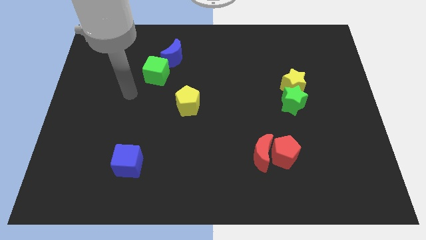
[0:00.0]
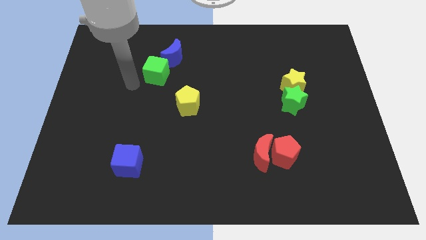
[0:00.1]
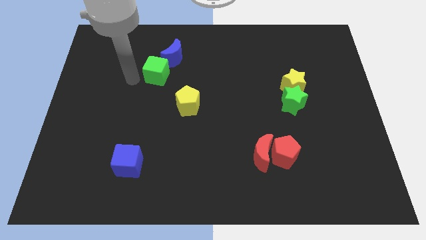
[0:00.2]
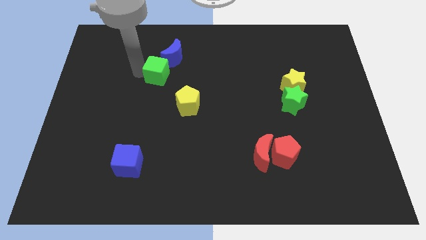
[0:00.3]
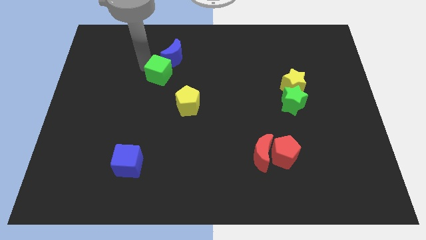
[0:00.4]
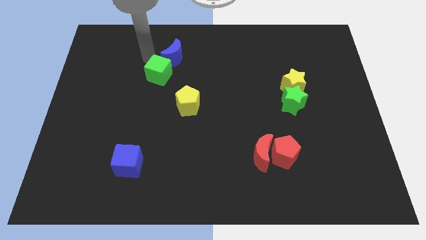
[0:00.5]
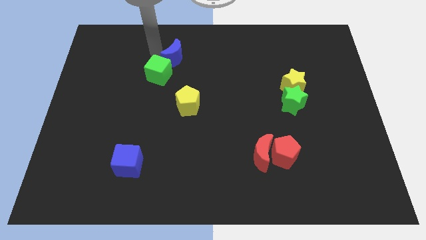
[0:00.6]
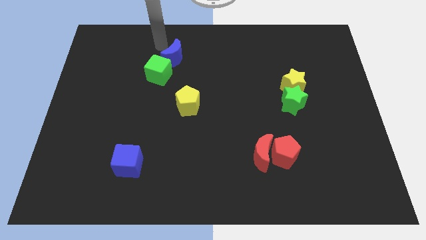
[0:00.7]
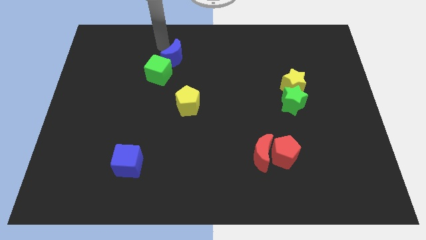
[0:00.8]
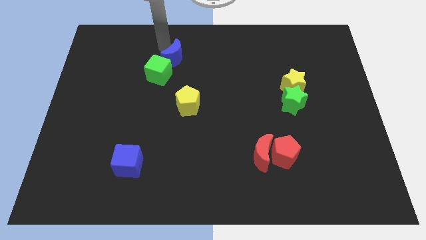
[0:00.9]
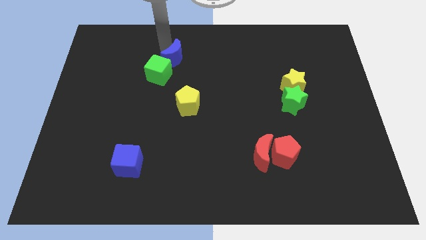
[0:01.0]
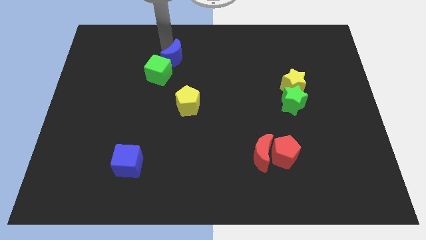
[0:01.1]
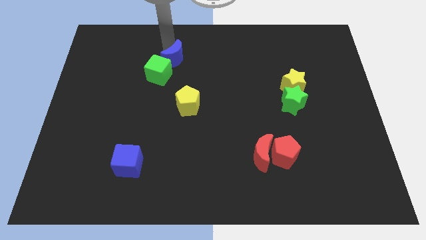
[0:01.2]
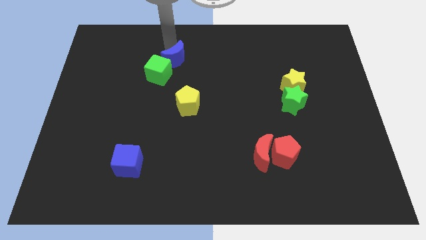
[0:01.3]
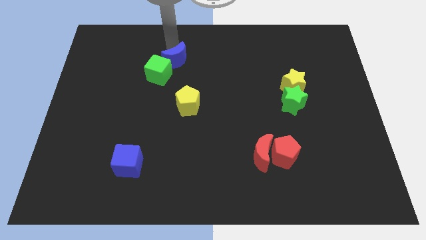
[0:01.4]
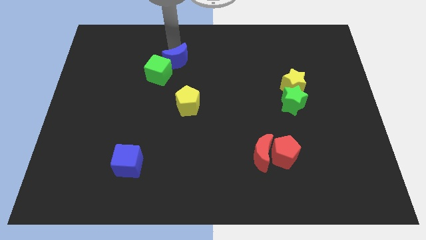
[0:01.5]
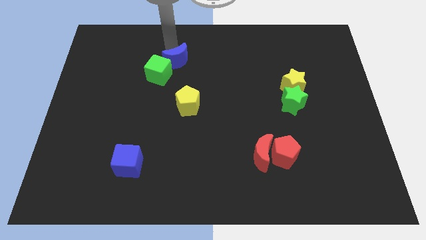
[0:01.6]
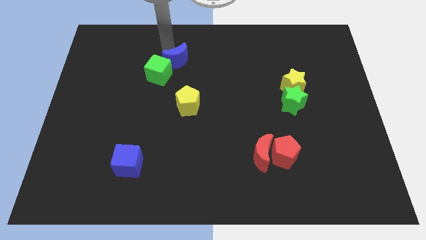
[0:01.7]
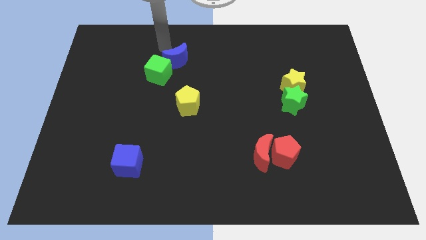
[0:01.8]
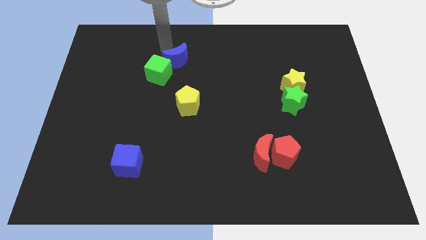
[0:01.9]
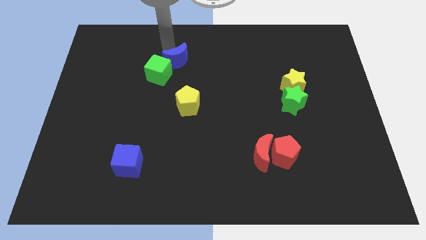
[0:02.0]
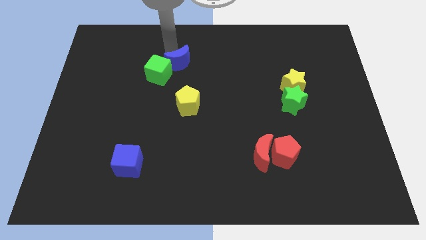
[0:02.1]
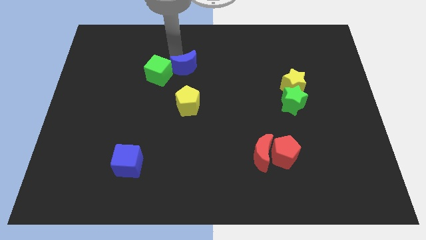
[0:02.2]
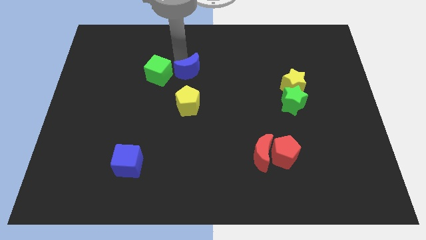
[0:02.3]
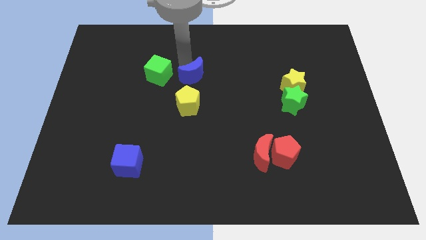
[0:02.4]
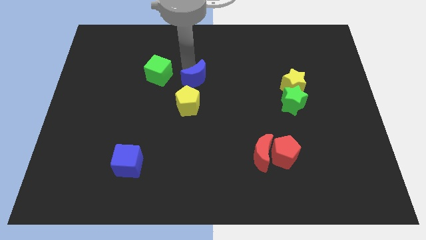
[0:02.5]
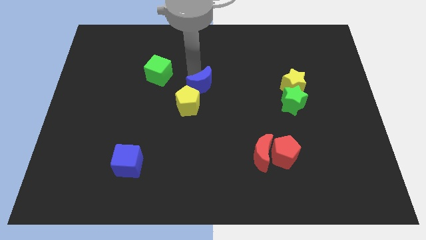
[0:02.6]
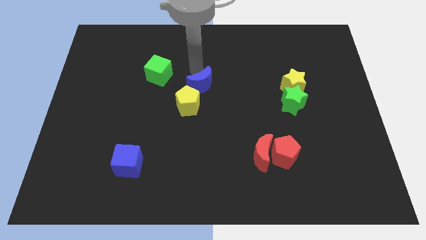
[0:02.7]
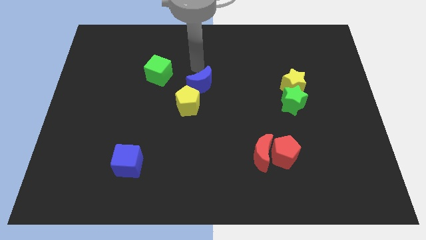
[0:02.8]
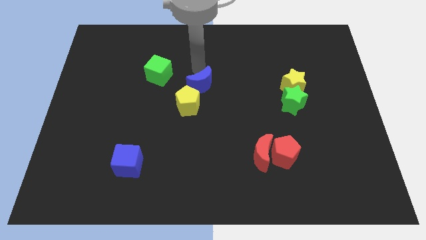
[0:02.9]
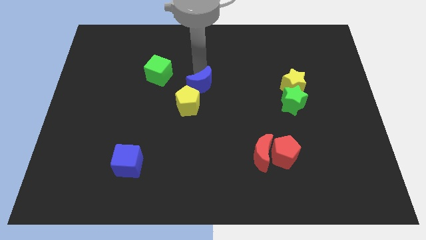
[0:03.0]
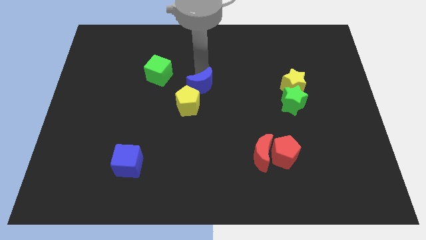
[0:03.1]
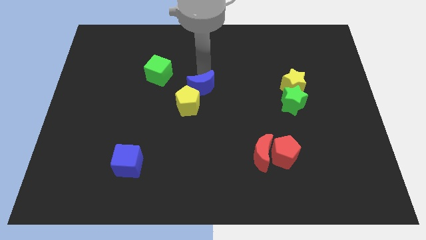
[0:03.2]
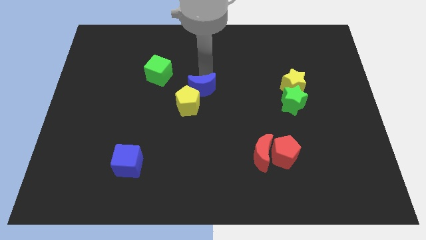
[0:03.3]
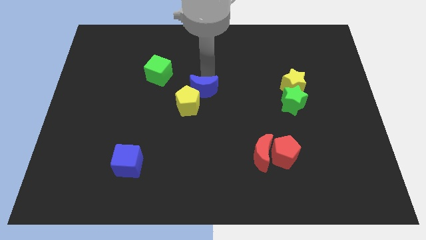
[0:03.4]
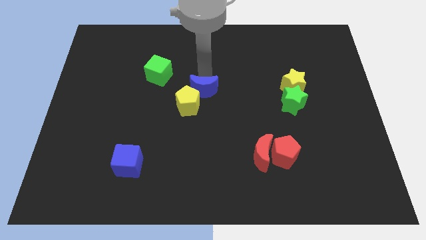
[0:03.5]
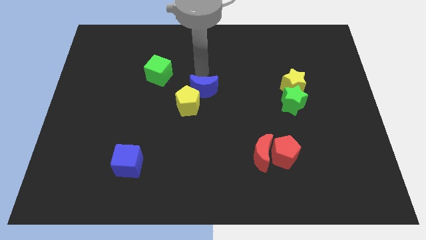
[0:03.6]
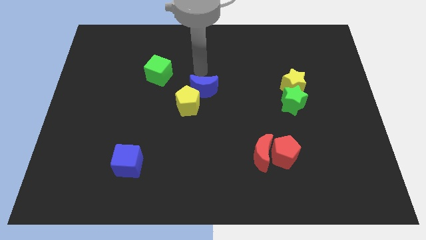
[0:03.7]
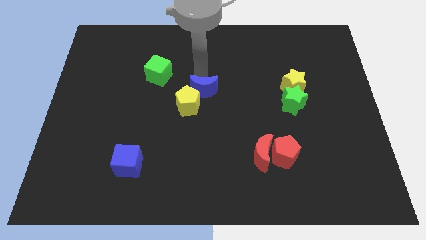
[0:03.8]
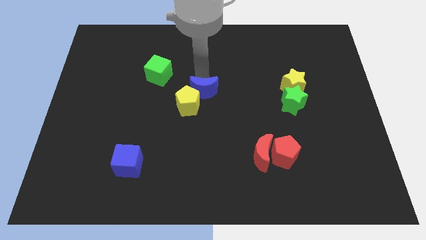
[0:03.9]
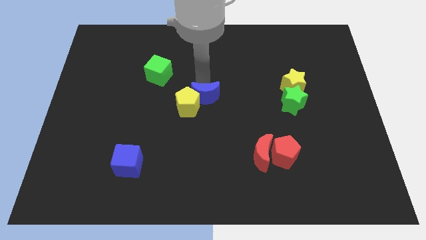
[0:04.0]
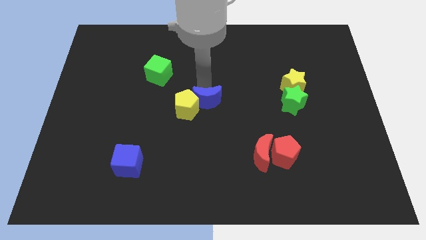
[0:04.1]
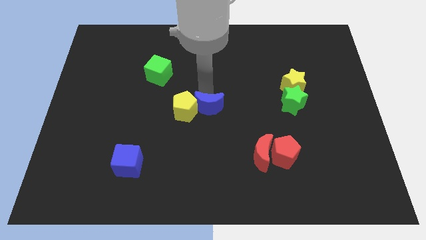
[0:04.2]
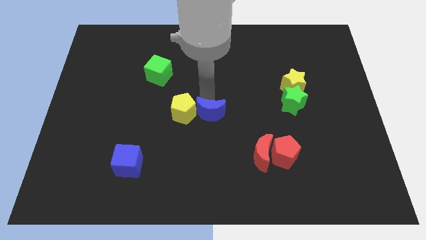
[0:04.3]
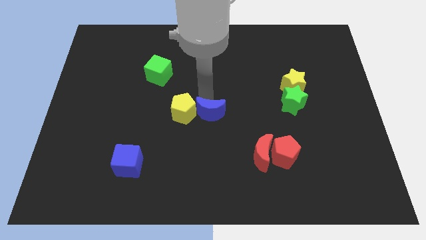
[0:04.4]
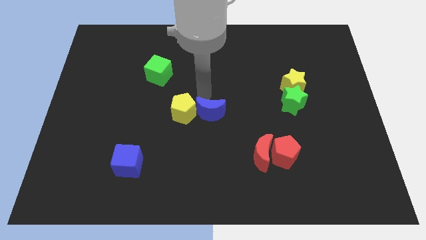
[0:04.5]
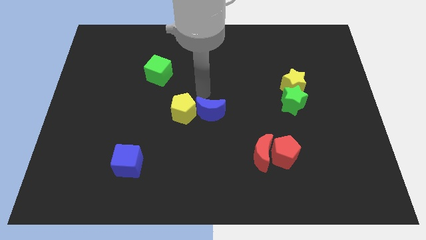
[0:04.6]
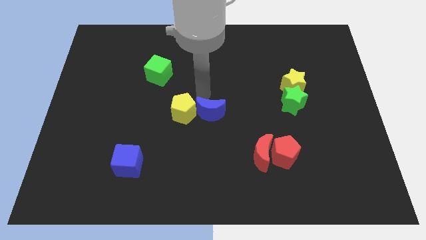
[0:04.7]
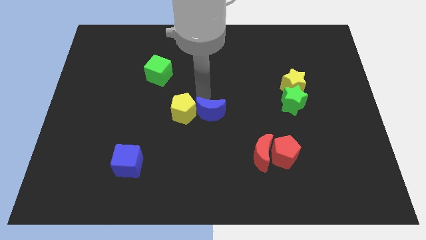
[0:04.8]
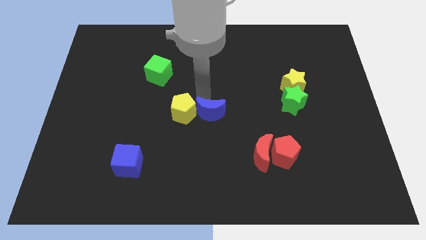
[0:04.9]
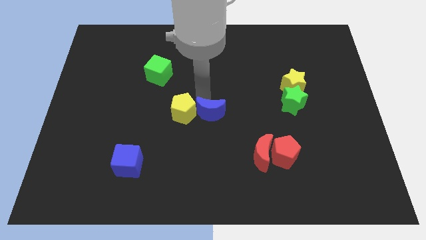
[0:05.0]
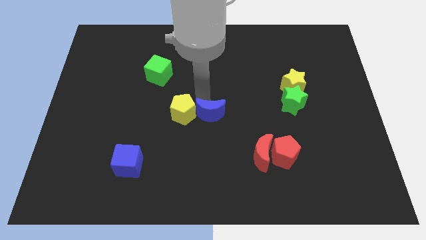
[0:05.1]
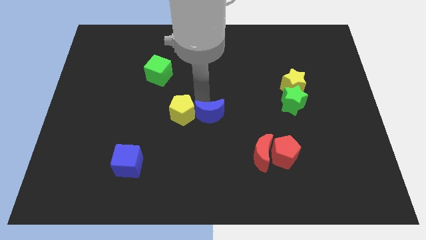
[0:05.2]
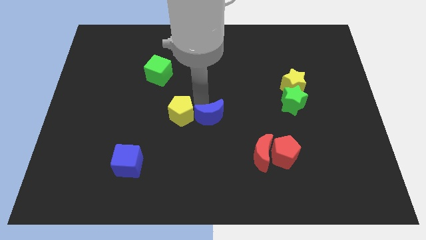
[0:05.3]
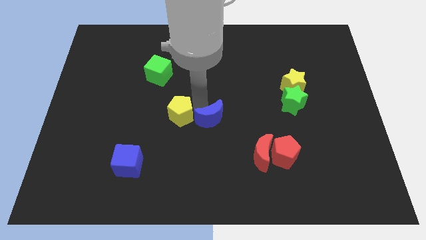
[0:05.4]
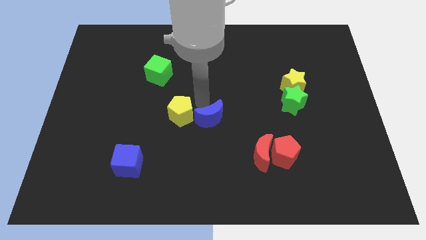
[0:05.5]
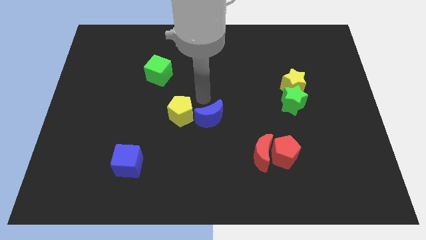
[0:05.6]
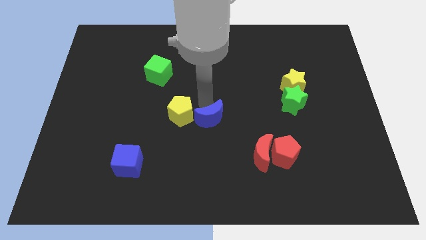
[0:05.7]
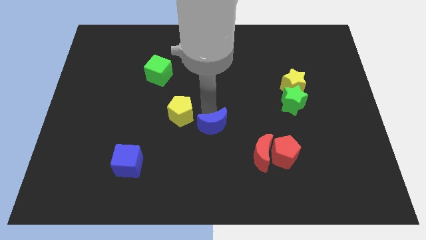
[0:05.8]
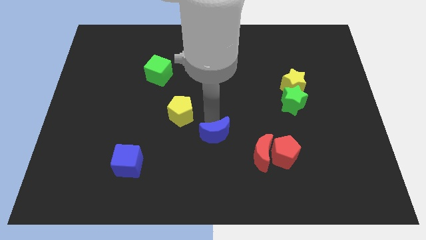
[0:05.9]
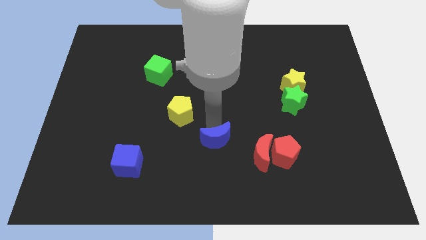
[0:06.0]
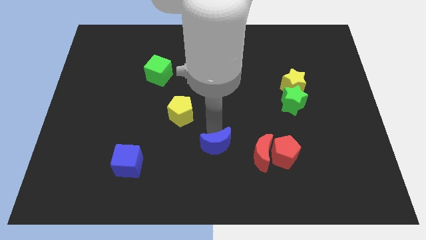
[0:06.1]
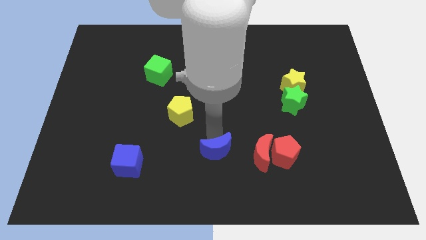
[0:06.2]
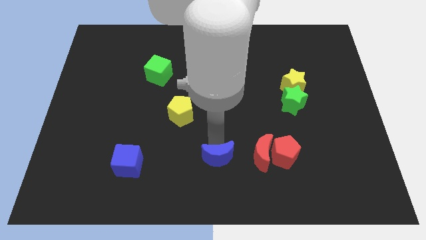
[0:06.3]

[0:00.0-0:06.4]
put the blue moon to the bottom side

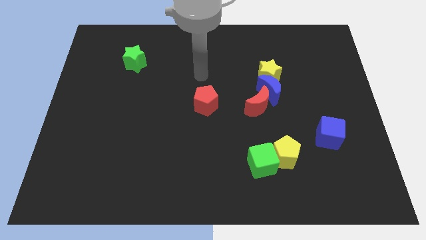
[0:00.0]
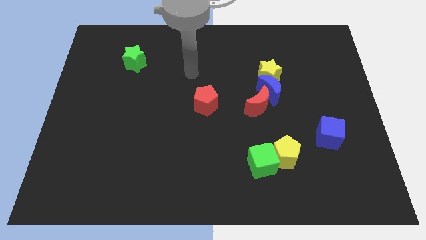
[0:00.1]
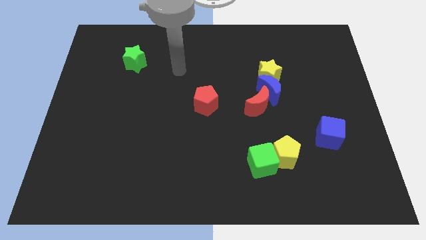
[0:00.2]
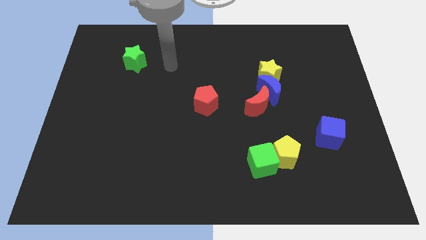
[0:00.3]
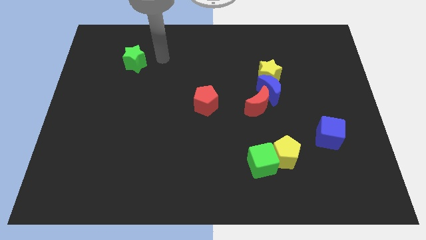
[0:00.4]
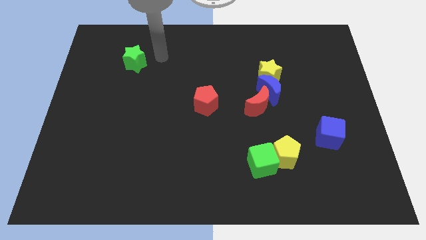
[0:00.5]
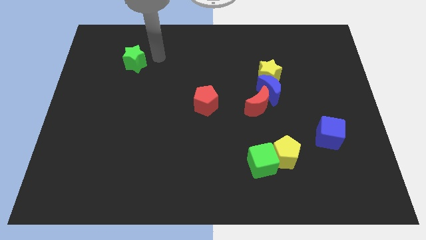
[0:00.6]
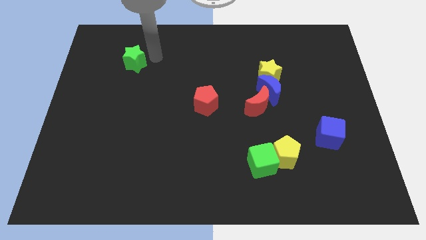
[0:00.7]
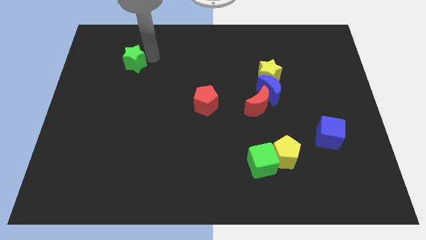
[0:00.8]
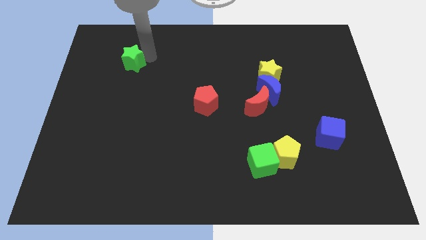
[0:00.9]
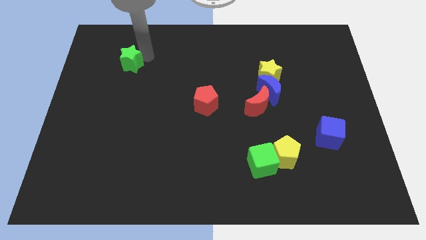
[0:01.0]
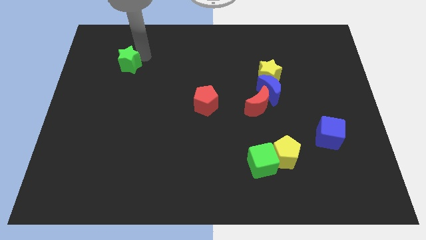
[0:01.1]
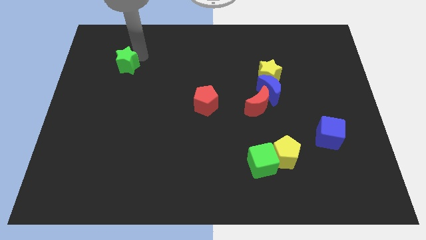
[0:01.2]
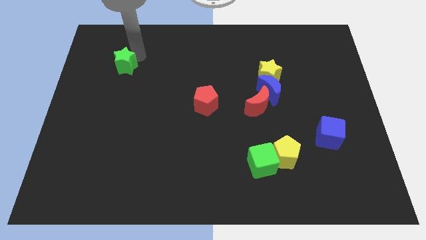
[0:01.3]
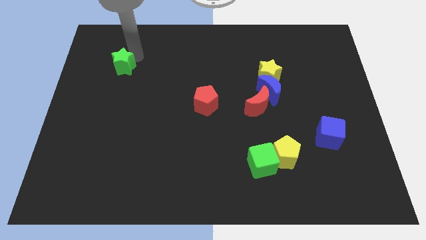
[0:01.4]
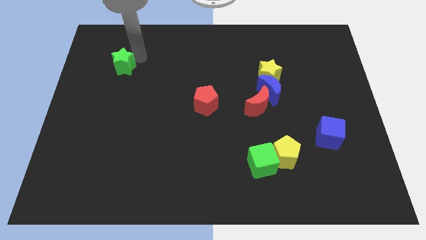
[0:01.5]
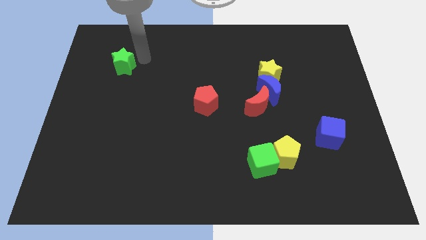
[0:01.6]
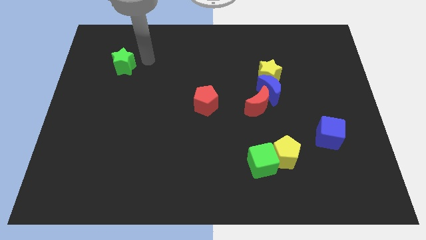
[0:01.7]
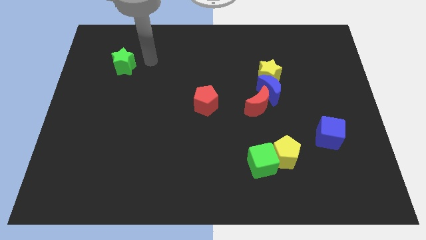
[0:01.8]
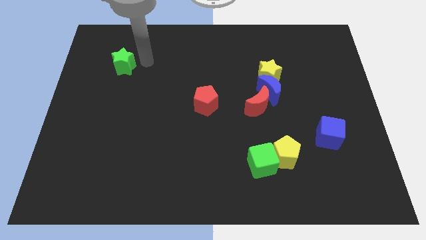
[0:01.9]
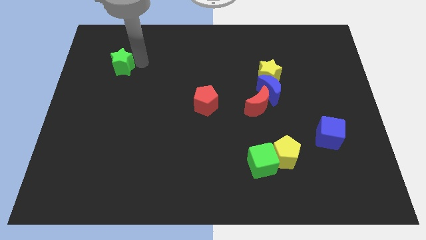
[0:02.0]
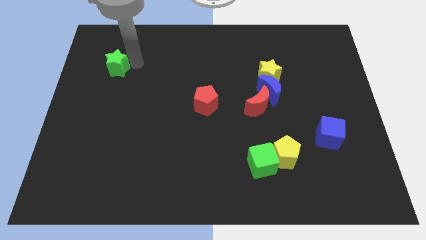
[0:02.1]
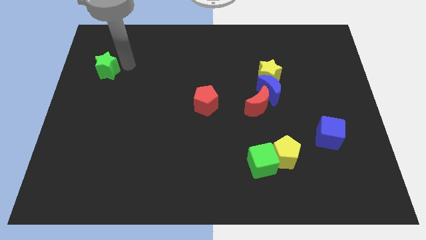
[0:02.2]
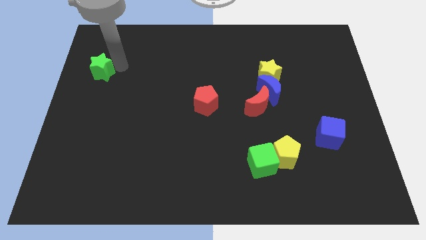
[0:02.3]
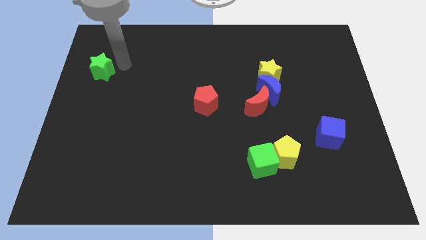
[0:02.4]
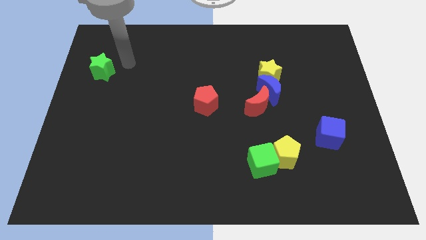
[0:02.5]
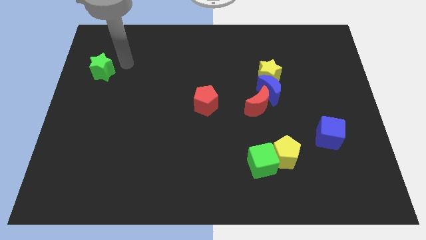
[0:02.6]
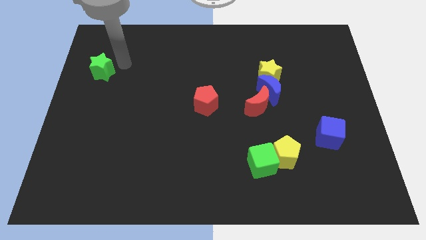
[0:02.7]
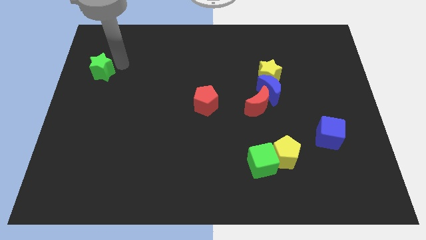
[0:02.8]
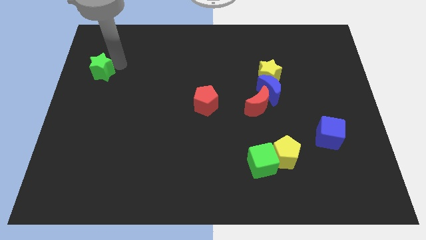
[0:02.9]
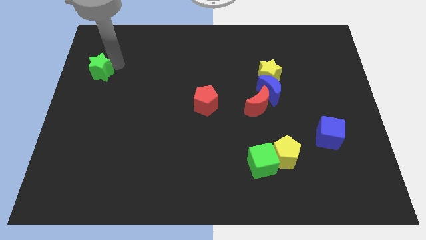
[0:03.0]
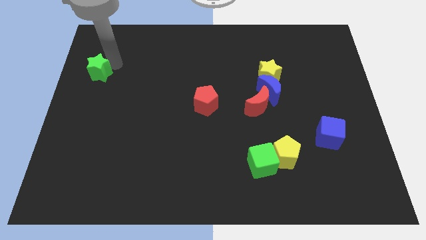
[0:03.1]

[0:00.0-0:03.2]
push the green star to the center left
